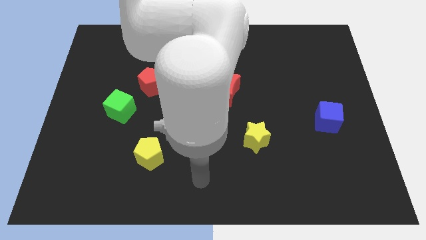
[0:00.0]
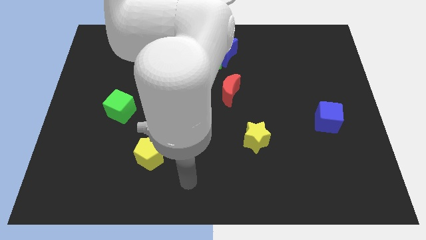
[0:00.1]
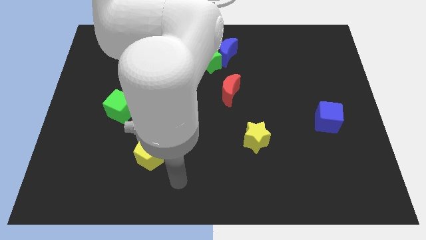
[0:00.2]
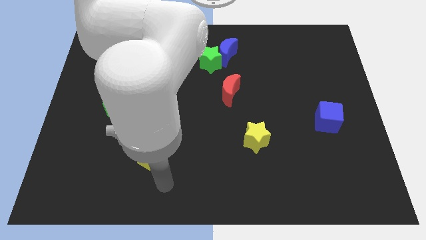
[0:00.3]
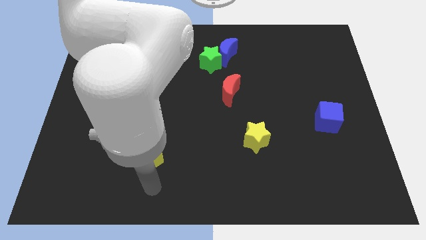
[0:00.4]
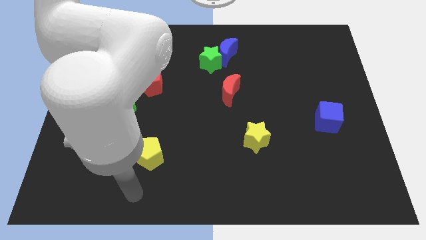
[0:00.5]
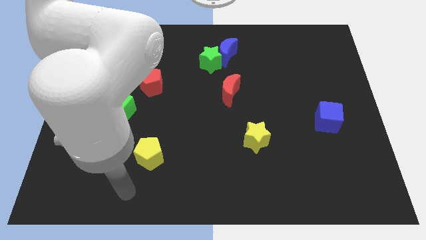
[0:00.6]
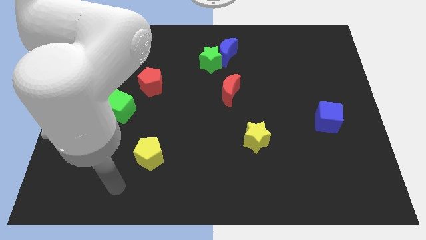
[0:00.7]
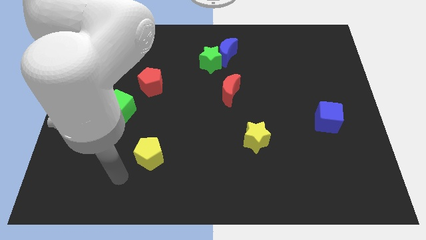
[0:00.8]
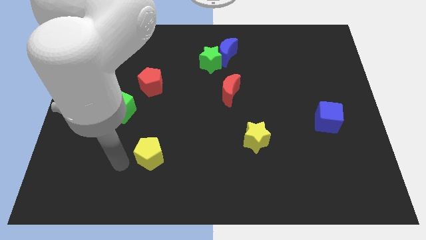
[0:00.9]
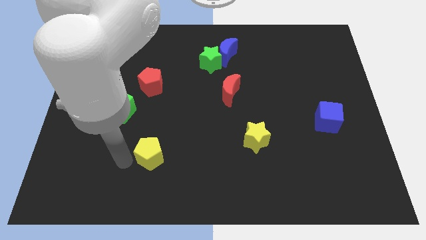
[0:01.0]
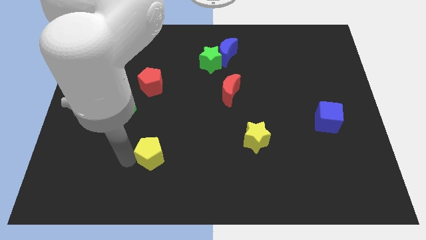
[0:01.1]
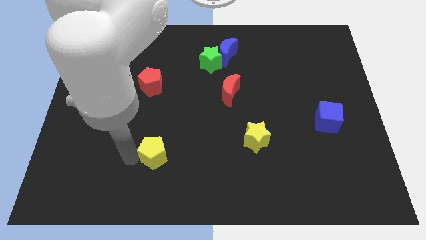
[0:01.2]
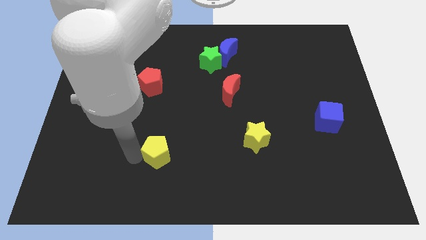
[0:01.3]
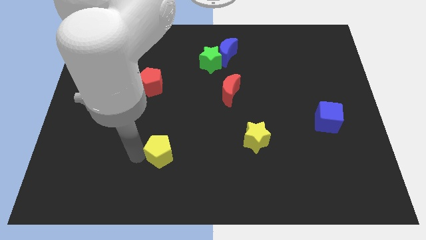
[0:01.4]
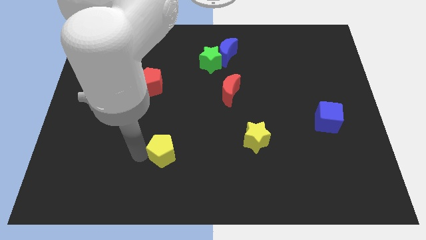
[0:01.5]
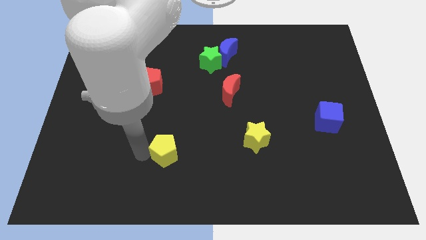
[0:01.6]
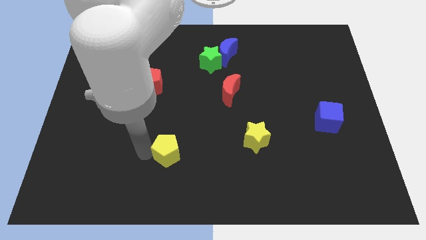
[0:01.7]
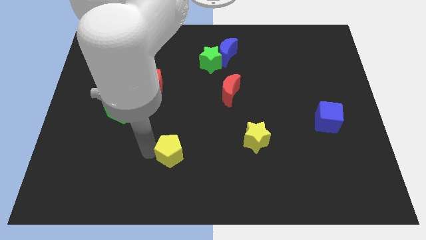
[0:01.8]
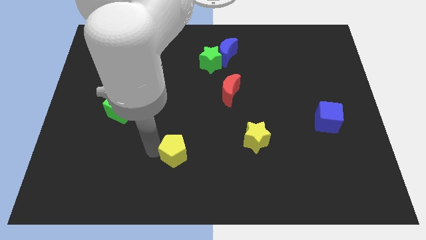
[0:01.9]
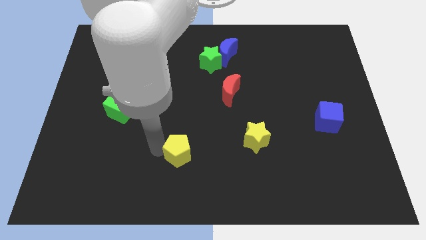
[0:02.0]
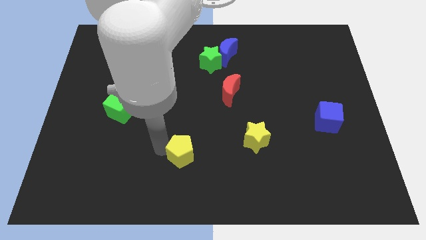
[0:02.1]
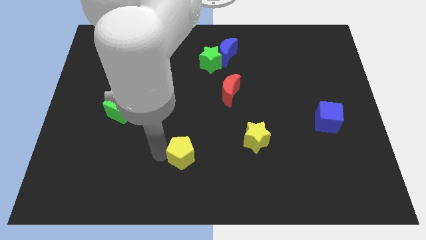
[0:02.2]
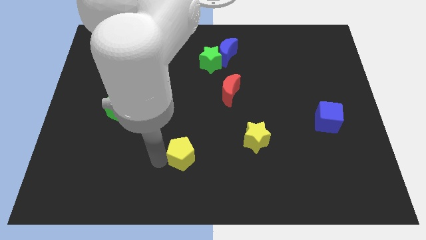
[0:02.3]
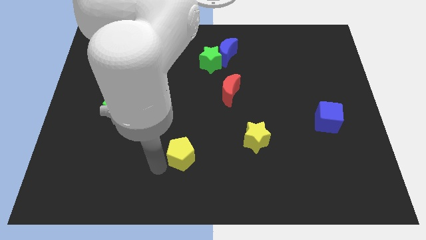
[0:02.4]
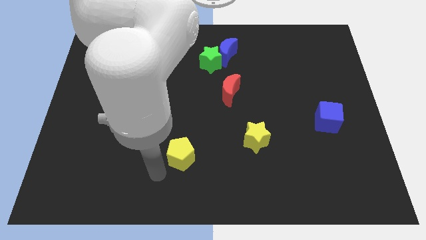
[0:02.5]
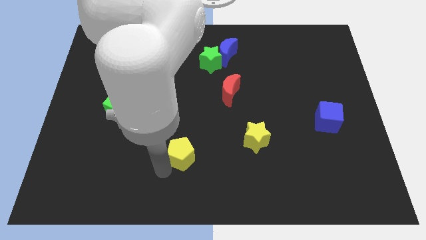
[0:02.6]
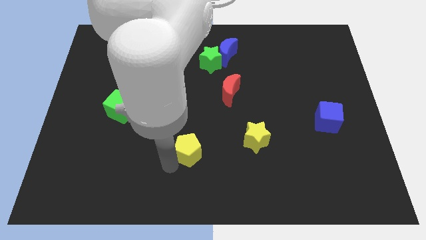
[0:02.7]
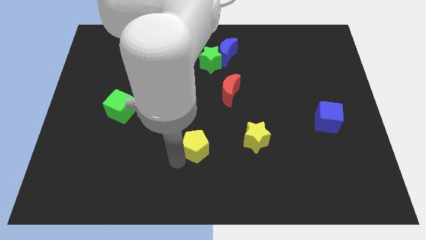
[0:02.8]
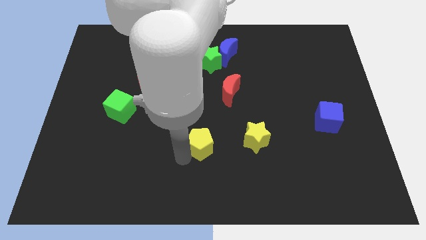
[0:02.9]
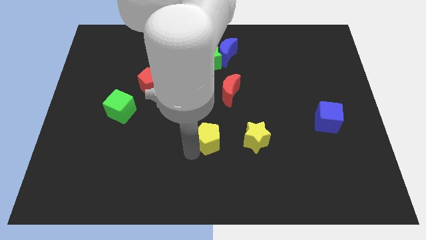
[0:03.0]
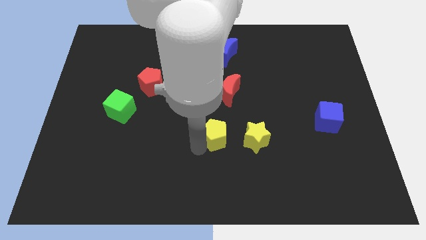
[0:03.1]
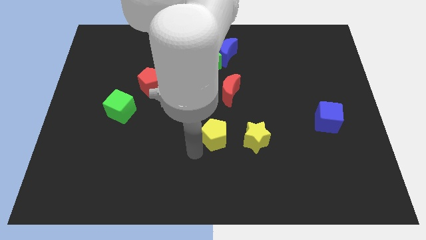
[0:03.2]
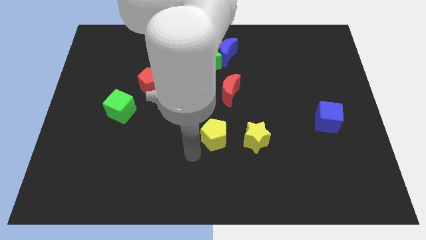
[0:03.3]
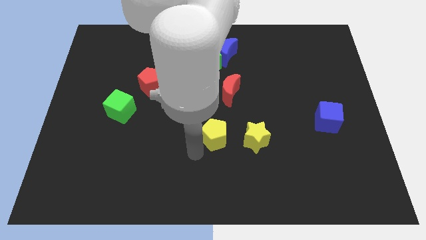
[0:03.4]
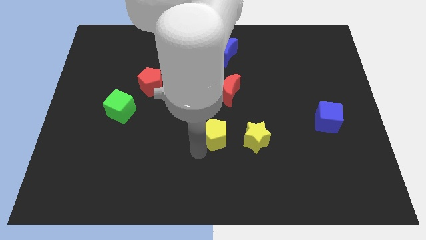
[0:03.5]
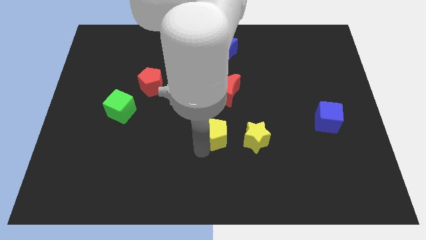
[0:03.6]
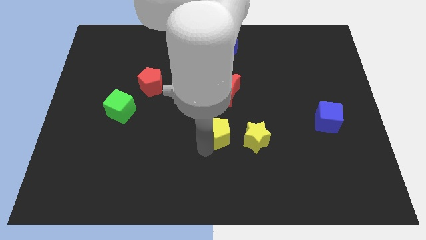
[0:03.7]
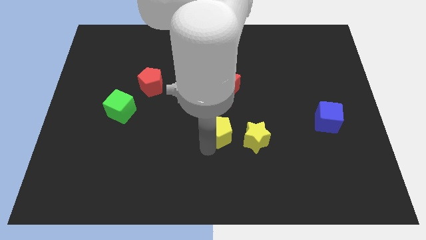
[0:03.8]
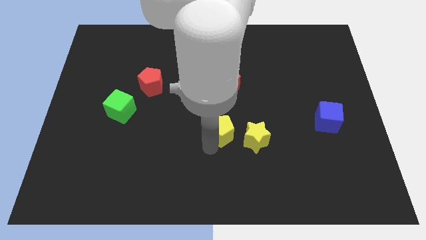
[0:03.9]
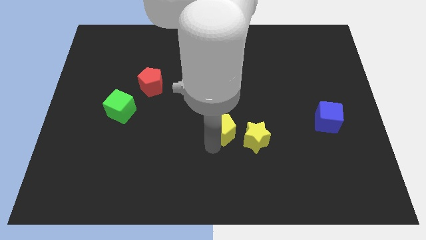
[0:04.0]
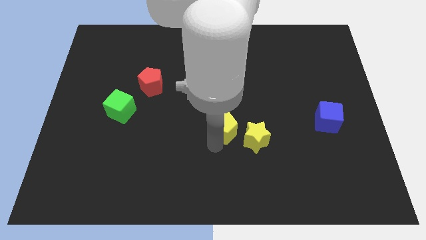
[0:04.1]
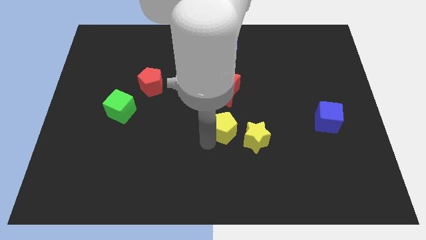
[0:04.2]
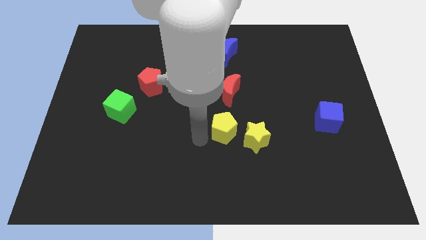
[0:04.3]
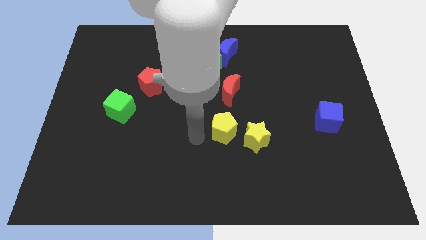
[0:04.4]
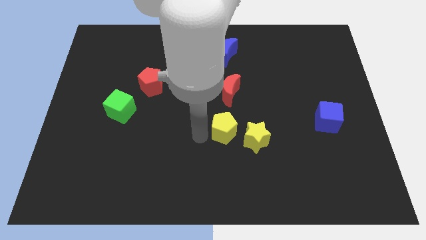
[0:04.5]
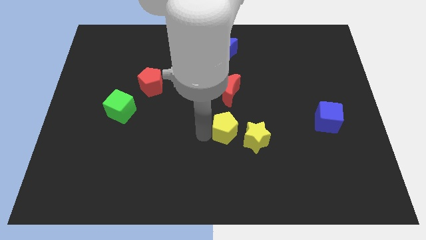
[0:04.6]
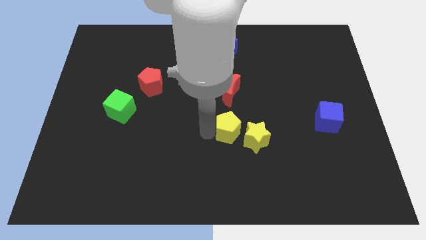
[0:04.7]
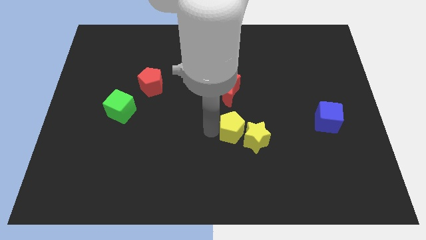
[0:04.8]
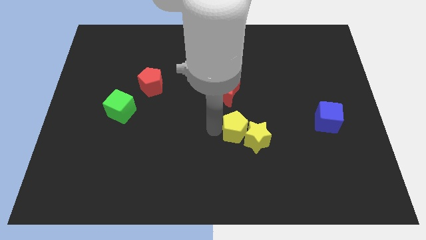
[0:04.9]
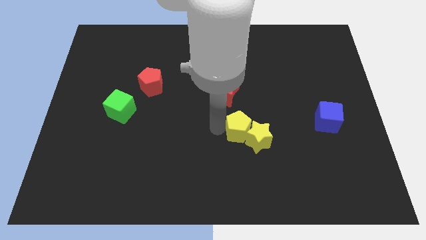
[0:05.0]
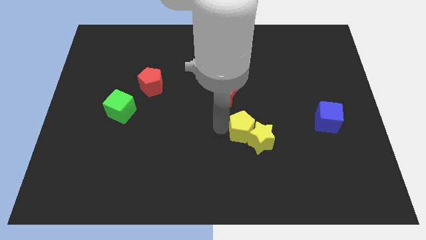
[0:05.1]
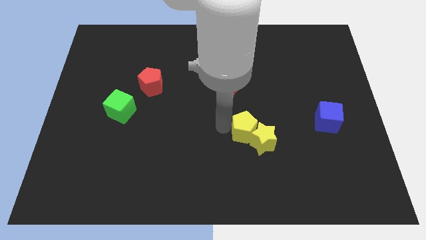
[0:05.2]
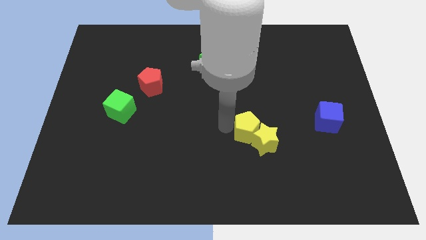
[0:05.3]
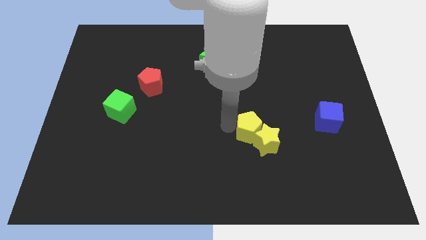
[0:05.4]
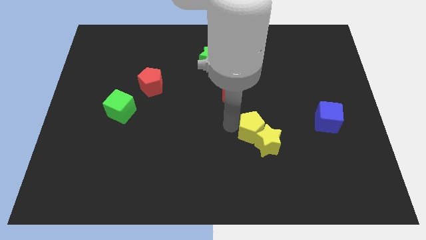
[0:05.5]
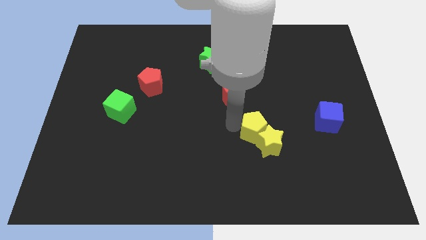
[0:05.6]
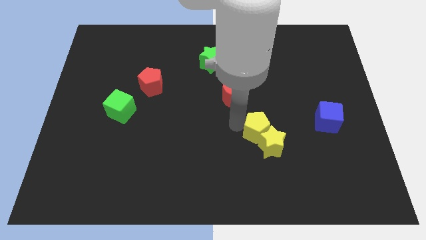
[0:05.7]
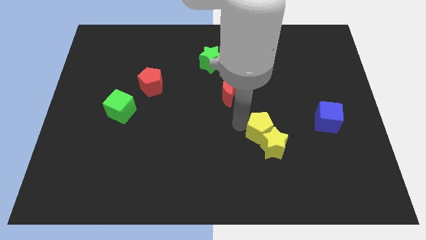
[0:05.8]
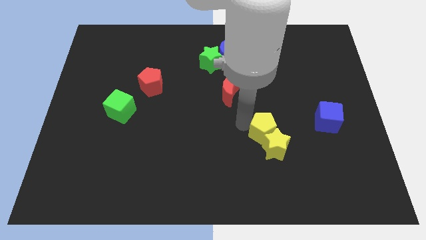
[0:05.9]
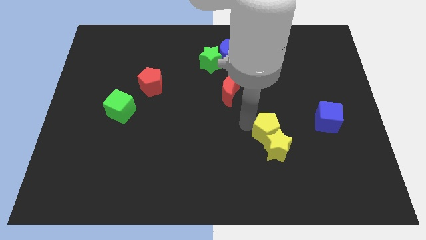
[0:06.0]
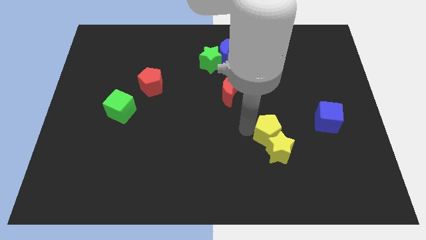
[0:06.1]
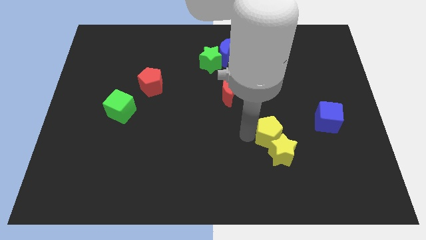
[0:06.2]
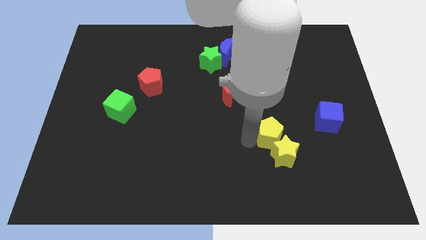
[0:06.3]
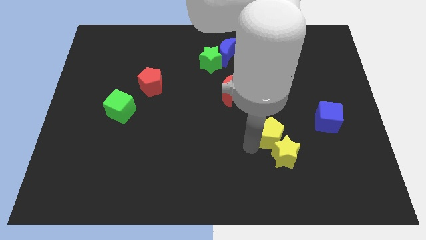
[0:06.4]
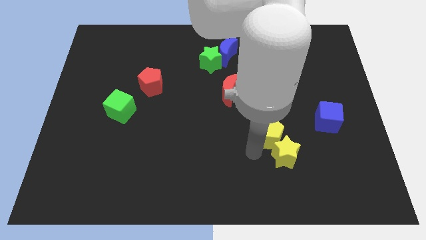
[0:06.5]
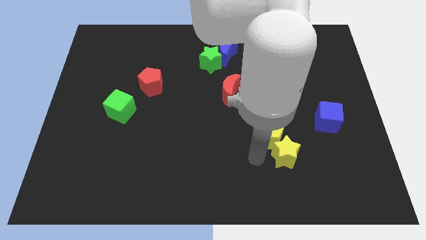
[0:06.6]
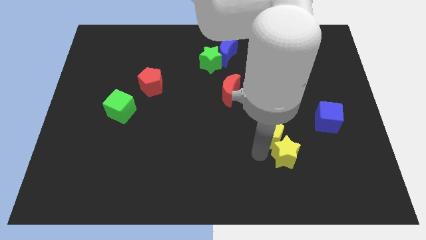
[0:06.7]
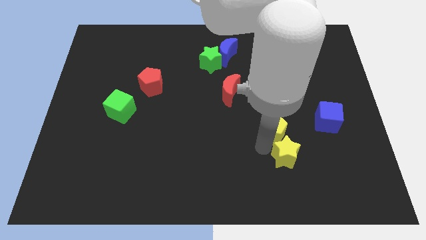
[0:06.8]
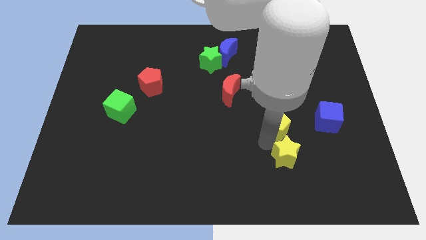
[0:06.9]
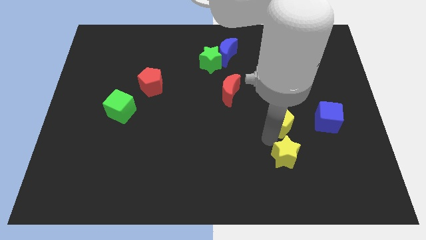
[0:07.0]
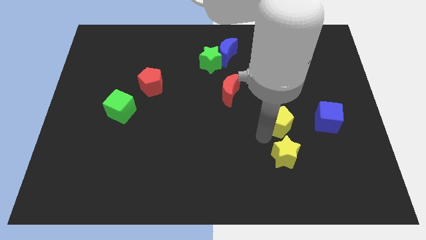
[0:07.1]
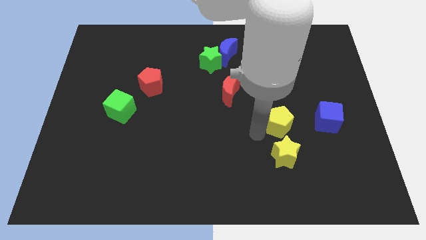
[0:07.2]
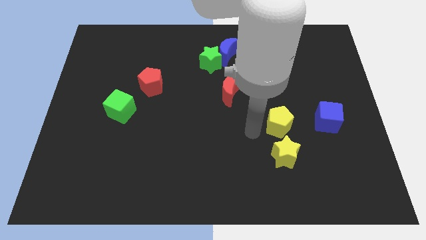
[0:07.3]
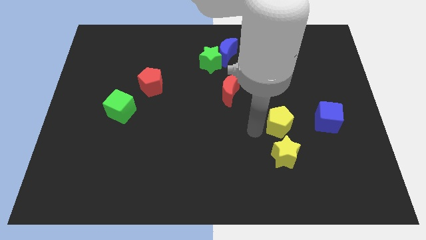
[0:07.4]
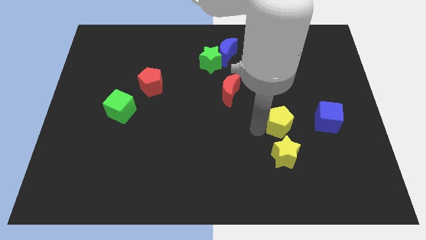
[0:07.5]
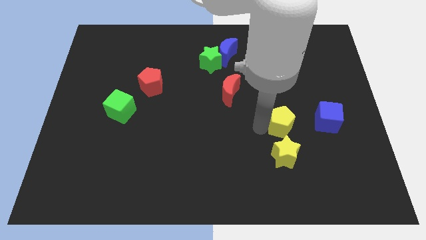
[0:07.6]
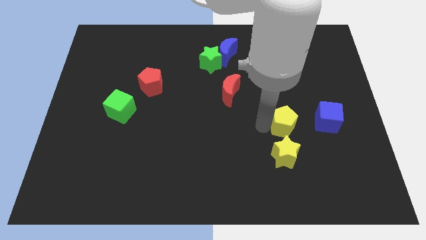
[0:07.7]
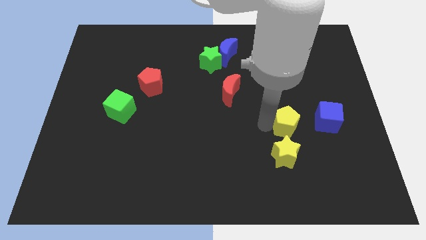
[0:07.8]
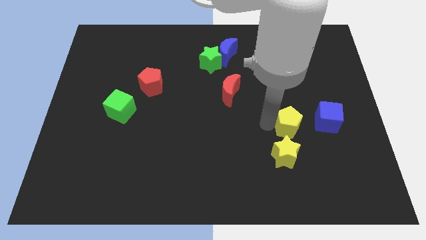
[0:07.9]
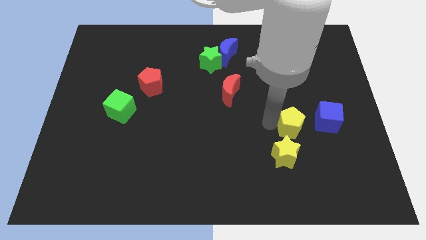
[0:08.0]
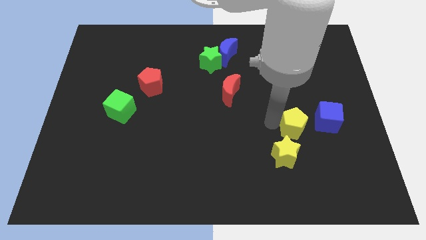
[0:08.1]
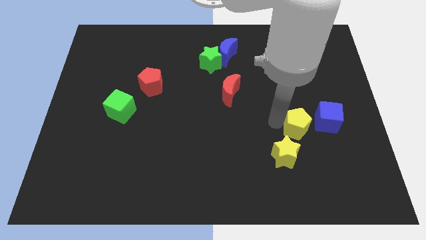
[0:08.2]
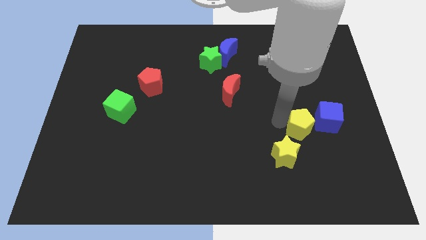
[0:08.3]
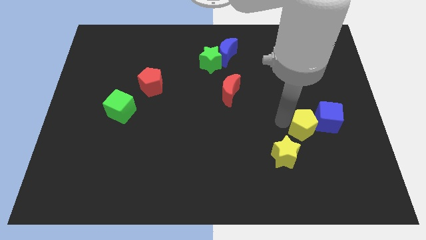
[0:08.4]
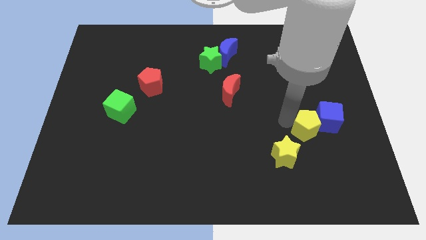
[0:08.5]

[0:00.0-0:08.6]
move the yellow pentagon to the blue cube
